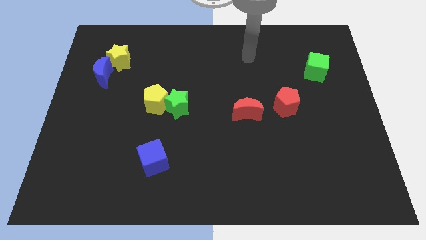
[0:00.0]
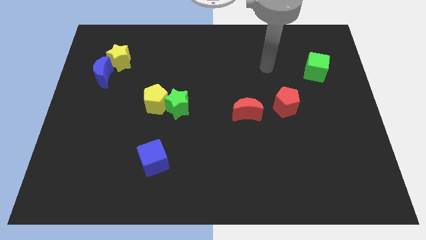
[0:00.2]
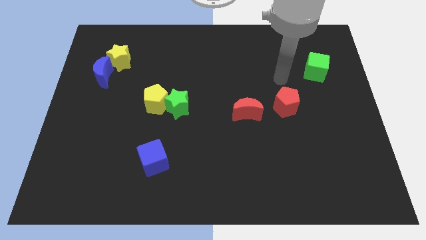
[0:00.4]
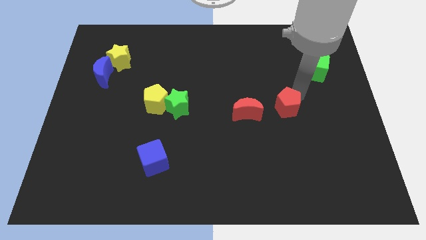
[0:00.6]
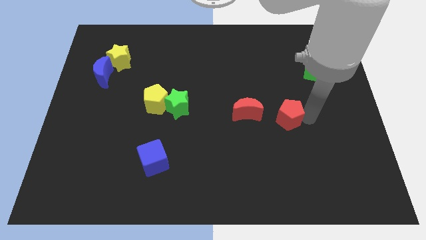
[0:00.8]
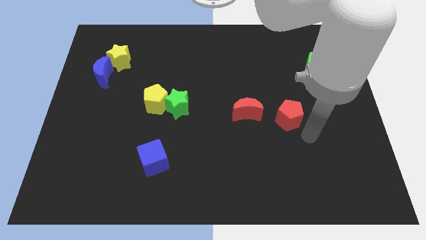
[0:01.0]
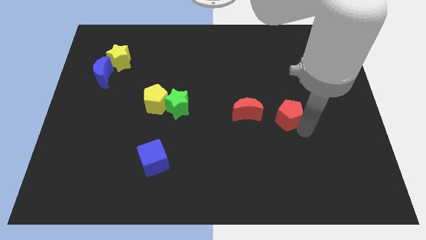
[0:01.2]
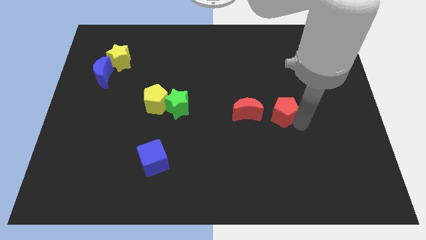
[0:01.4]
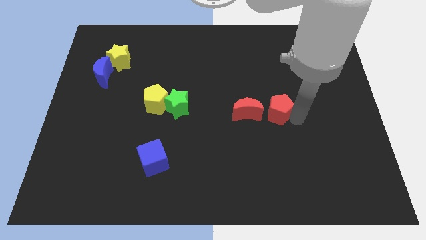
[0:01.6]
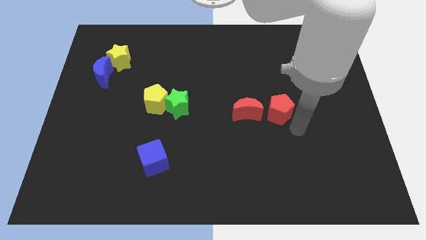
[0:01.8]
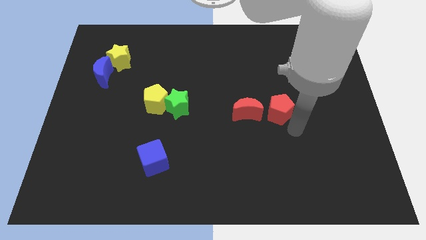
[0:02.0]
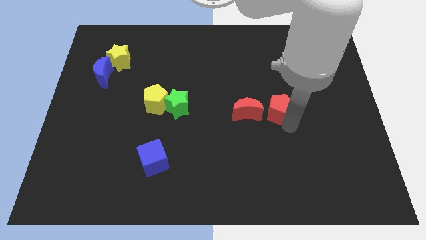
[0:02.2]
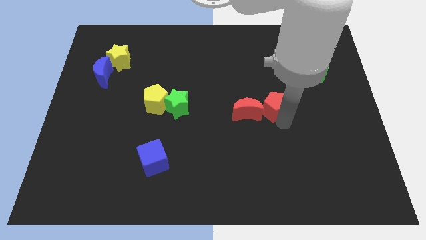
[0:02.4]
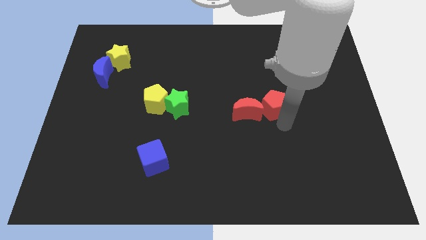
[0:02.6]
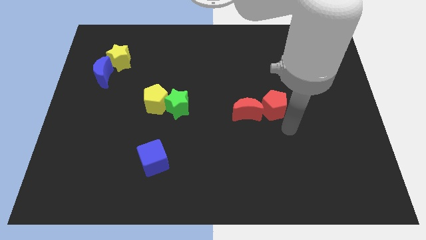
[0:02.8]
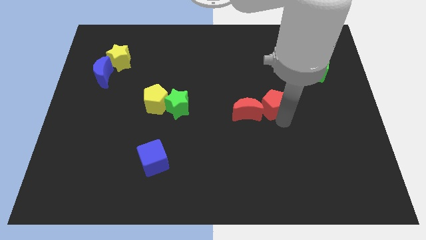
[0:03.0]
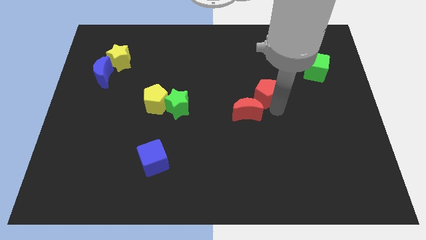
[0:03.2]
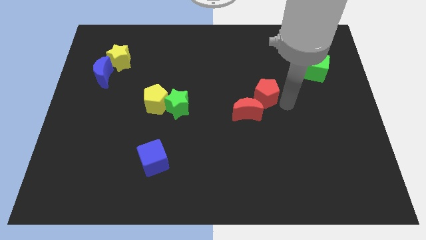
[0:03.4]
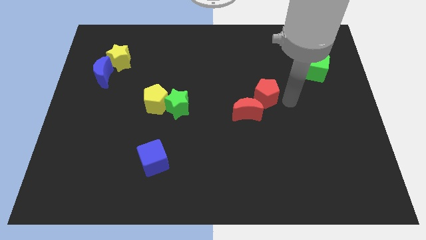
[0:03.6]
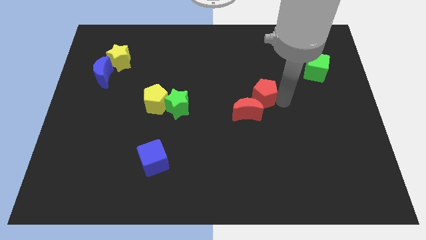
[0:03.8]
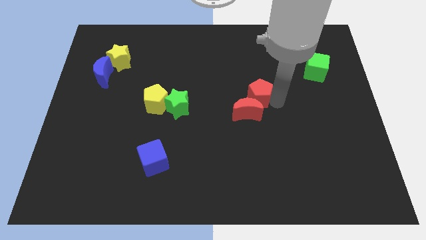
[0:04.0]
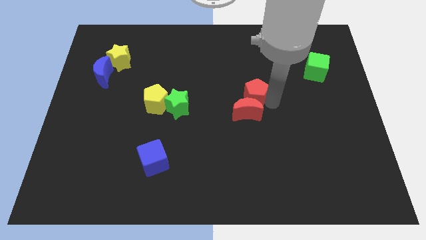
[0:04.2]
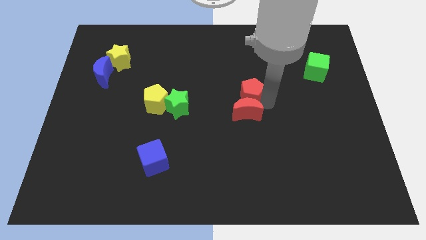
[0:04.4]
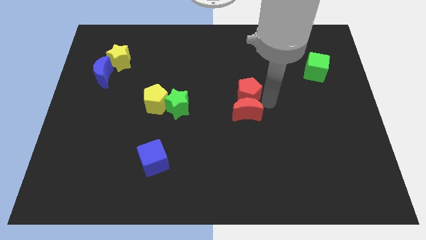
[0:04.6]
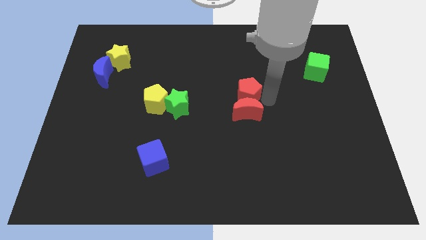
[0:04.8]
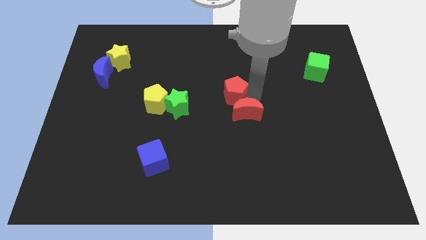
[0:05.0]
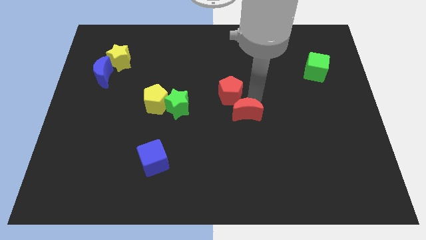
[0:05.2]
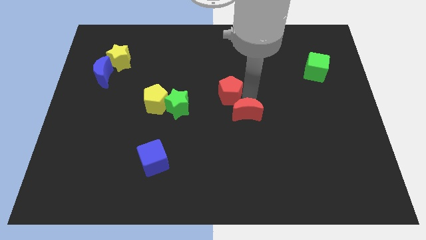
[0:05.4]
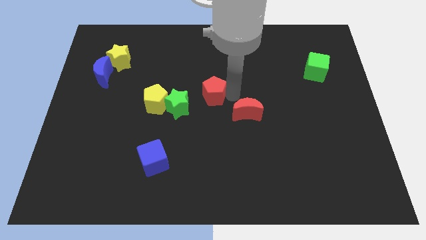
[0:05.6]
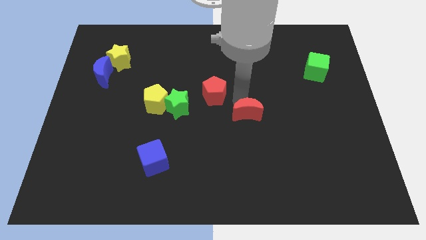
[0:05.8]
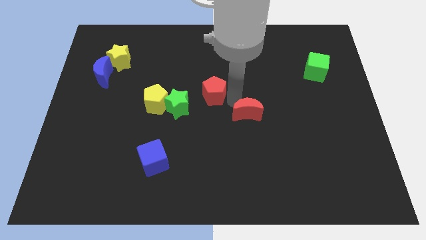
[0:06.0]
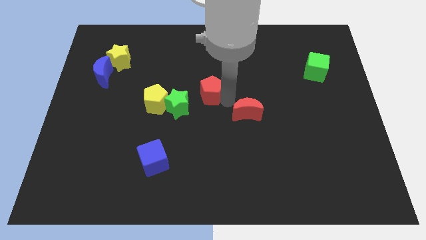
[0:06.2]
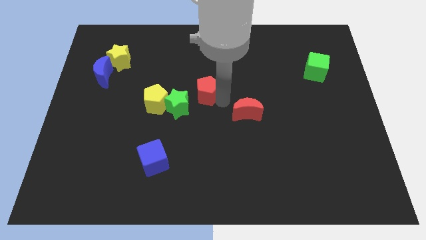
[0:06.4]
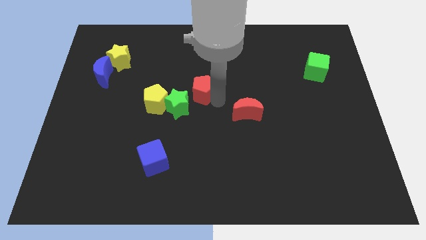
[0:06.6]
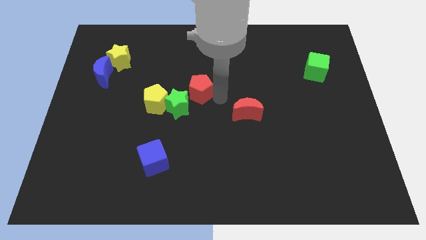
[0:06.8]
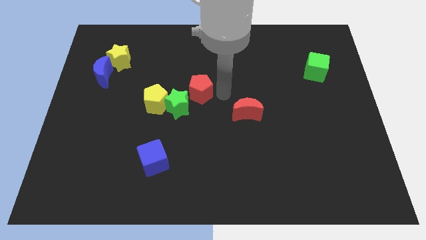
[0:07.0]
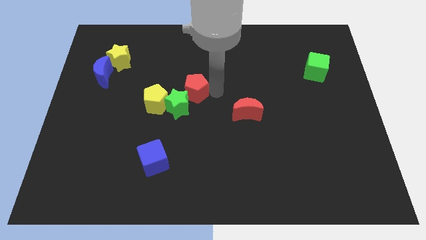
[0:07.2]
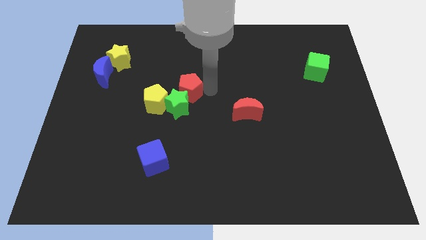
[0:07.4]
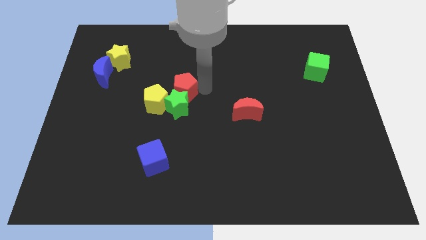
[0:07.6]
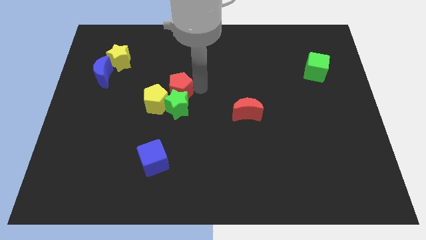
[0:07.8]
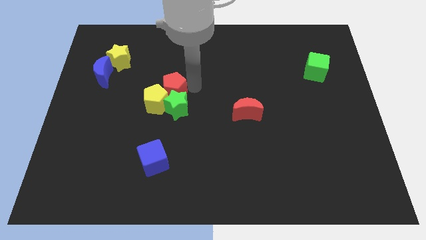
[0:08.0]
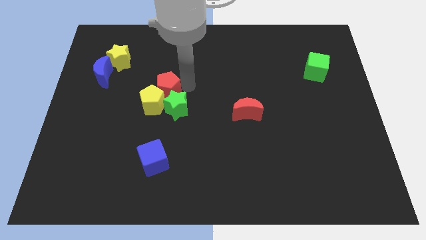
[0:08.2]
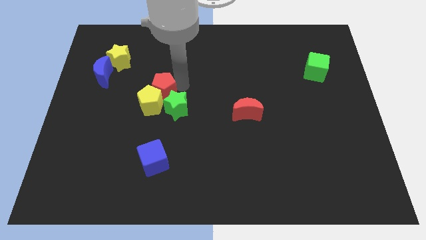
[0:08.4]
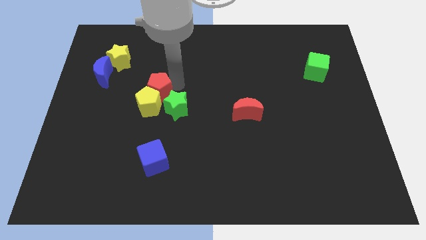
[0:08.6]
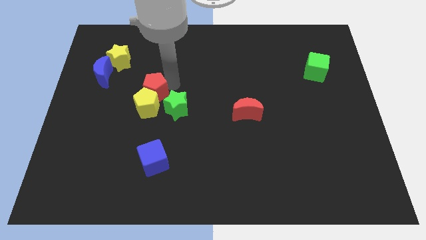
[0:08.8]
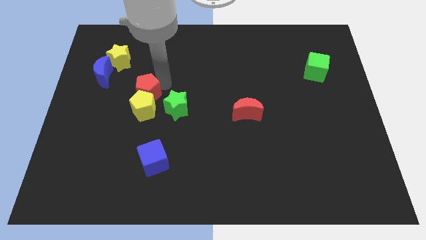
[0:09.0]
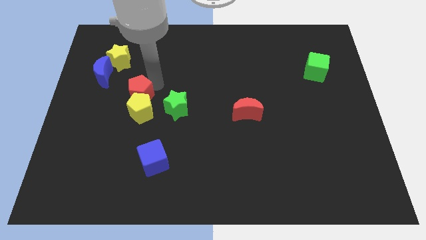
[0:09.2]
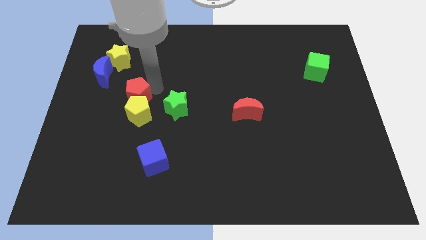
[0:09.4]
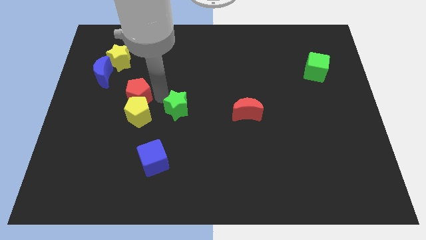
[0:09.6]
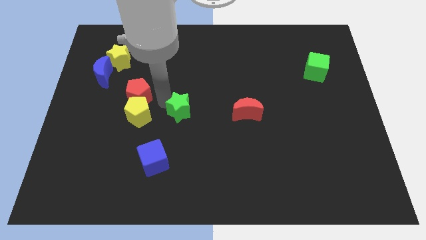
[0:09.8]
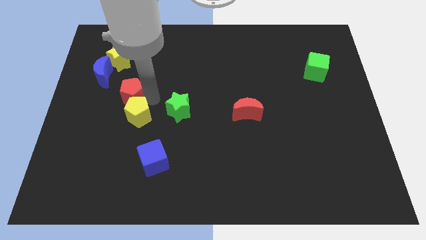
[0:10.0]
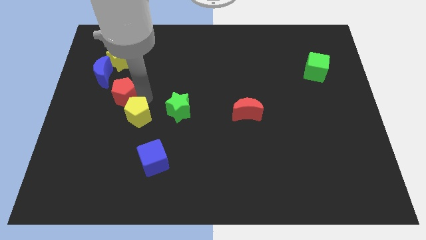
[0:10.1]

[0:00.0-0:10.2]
put the red pentagon to the bottom of the yellow star

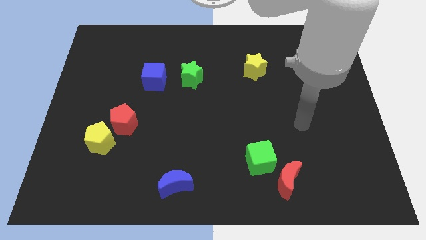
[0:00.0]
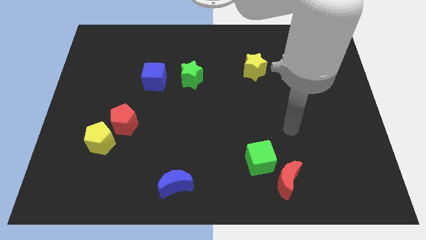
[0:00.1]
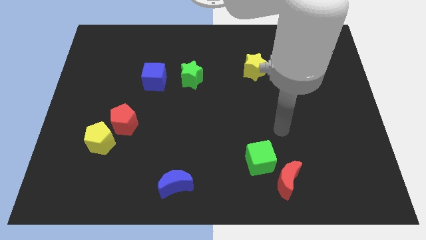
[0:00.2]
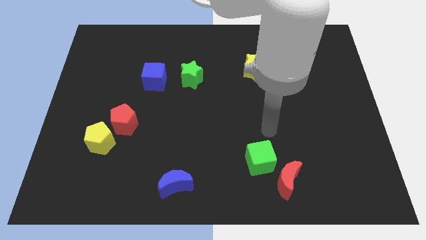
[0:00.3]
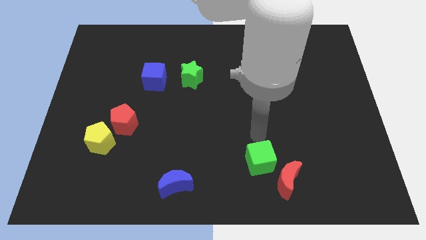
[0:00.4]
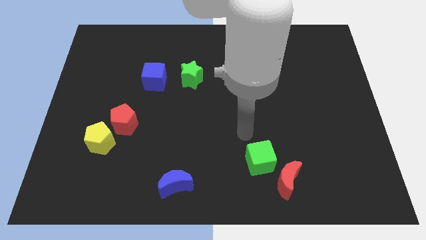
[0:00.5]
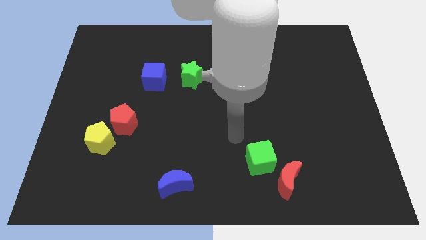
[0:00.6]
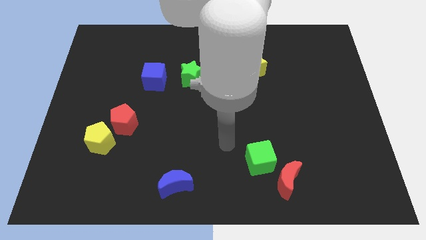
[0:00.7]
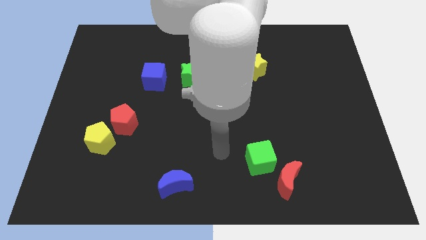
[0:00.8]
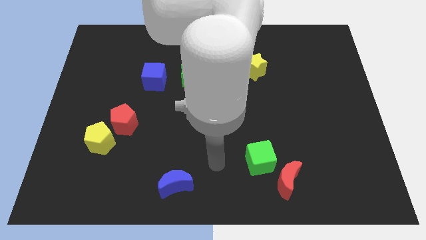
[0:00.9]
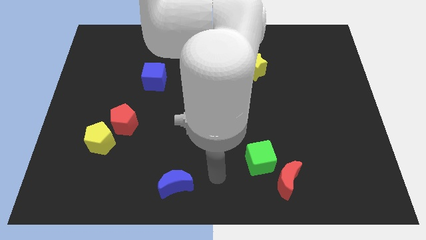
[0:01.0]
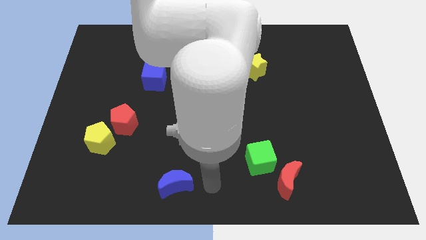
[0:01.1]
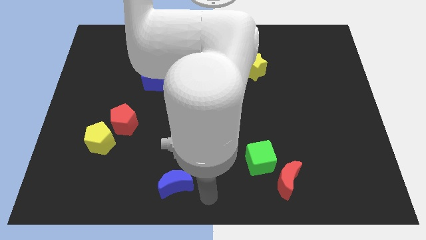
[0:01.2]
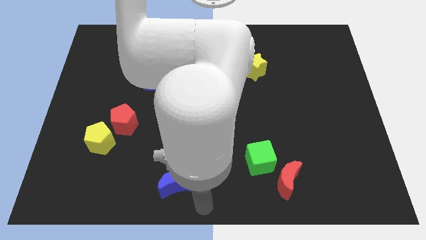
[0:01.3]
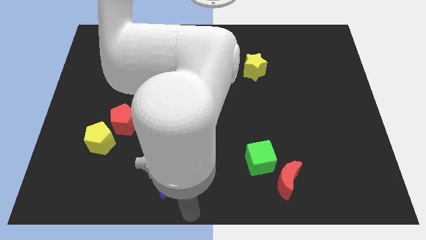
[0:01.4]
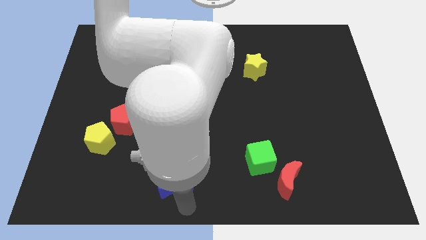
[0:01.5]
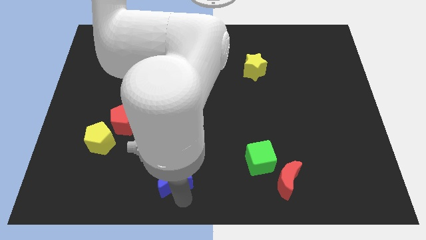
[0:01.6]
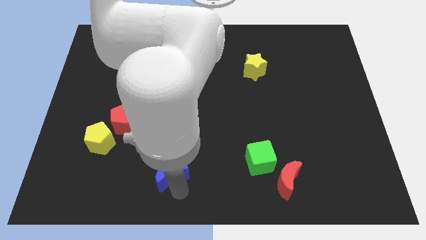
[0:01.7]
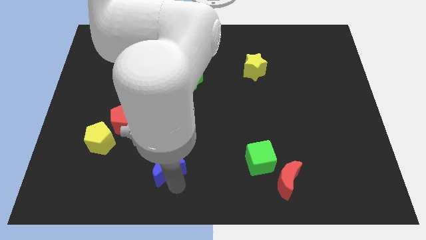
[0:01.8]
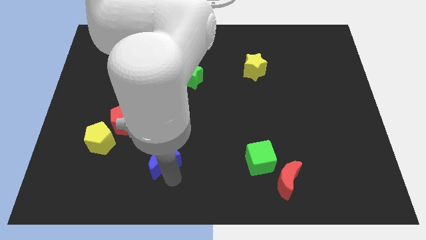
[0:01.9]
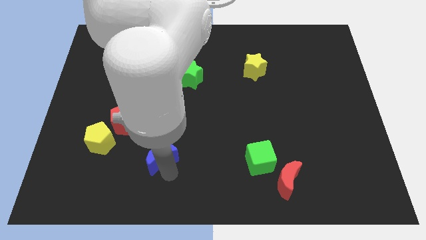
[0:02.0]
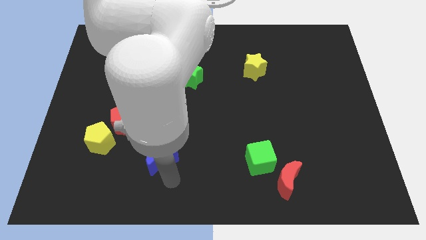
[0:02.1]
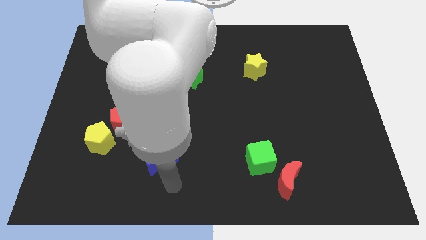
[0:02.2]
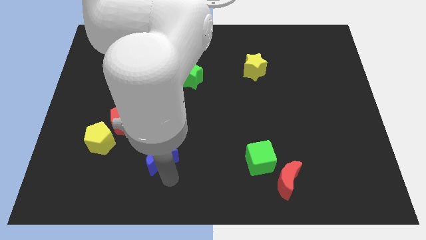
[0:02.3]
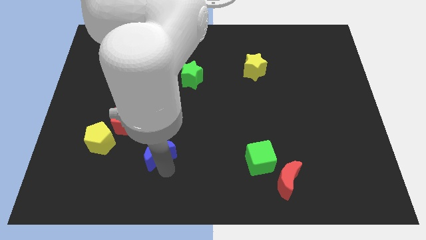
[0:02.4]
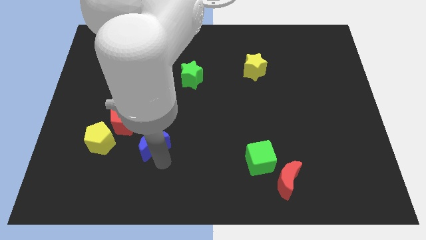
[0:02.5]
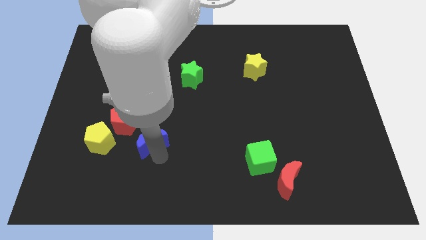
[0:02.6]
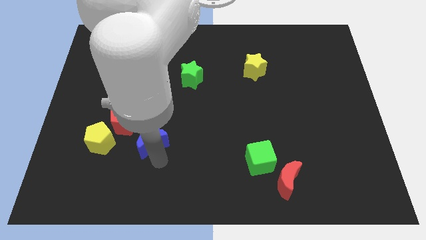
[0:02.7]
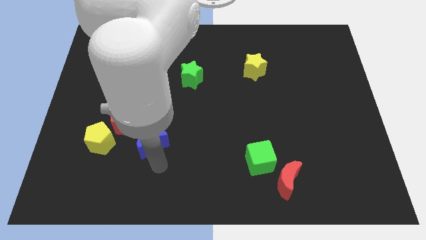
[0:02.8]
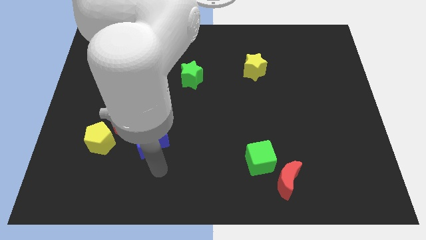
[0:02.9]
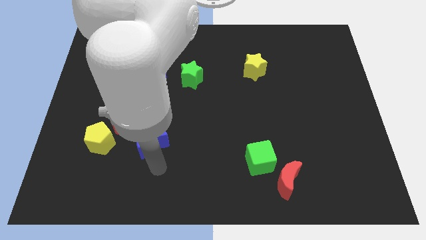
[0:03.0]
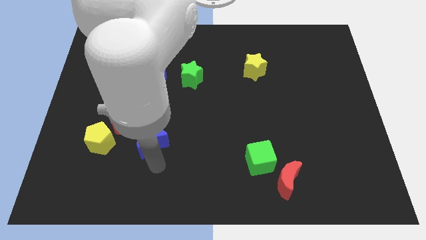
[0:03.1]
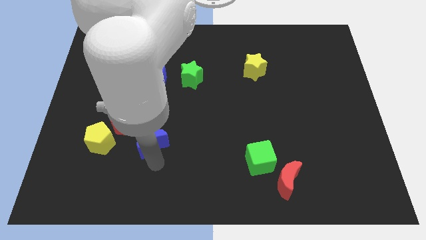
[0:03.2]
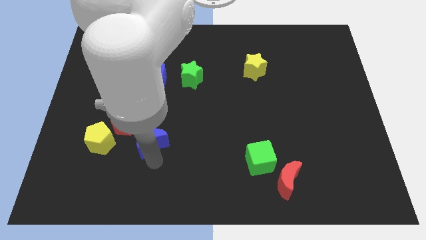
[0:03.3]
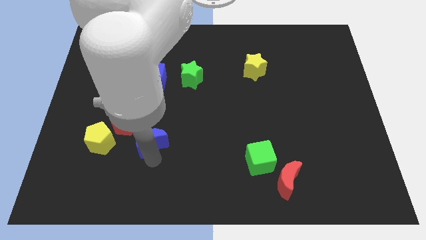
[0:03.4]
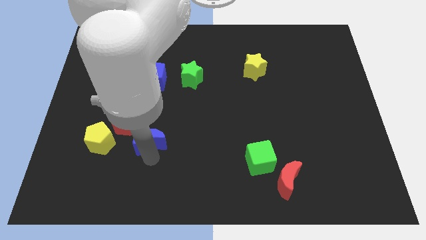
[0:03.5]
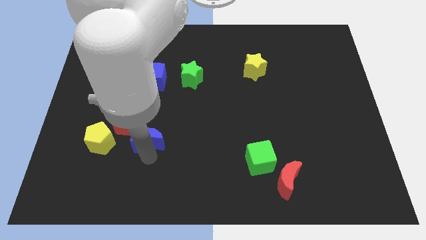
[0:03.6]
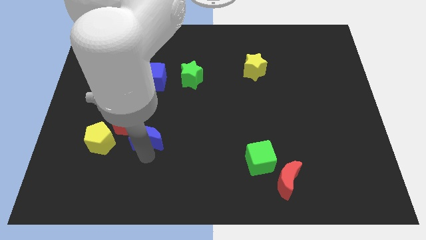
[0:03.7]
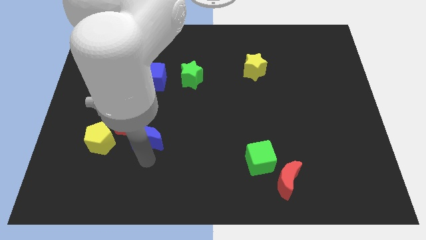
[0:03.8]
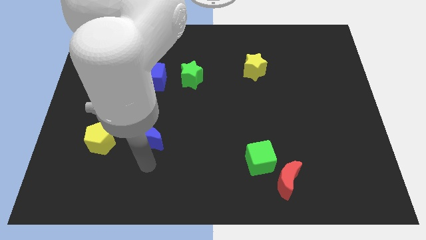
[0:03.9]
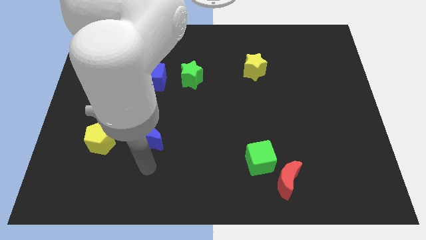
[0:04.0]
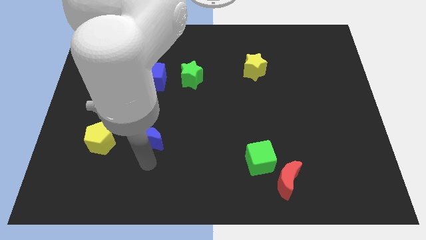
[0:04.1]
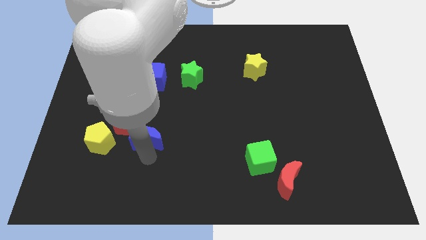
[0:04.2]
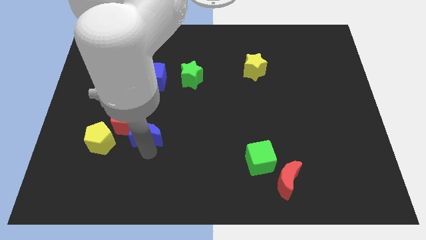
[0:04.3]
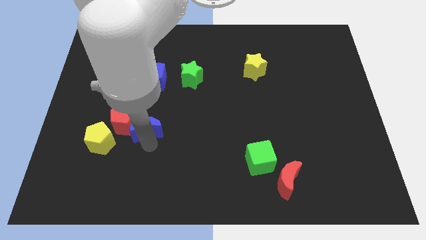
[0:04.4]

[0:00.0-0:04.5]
push the blue moon to the top right side of the yellow pentagon
